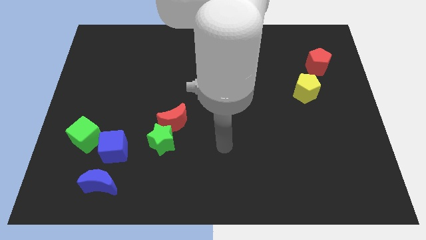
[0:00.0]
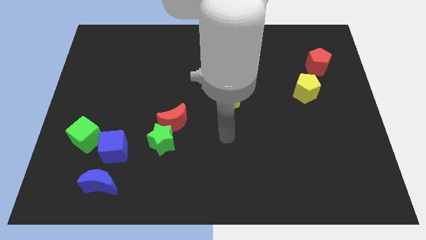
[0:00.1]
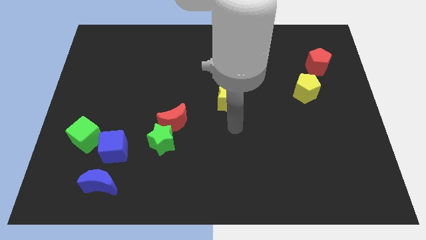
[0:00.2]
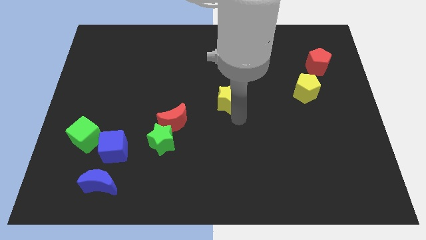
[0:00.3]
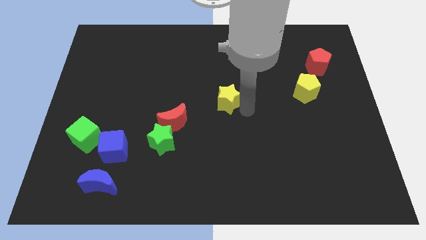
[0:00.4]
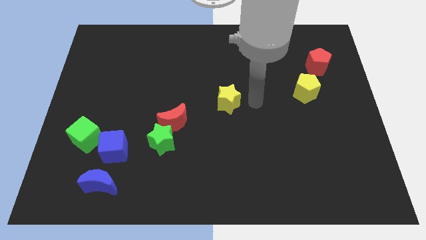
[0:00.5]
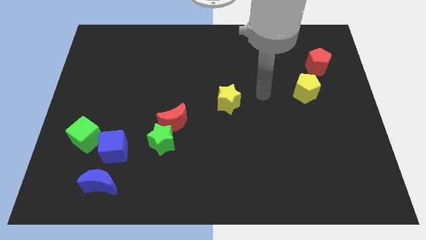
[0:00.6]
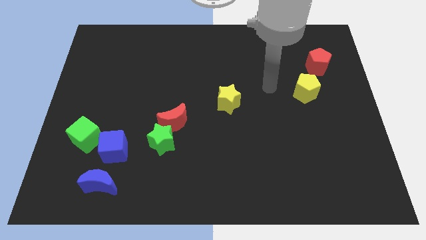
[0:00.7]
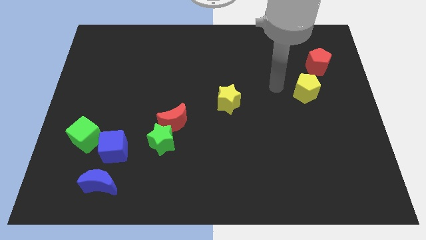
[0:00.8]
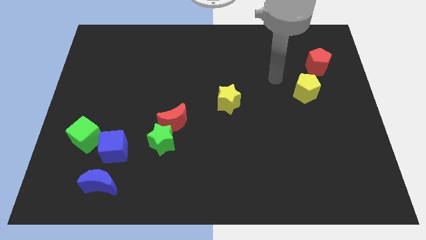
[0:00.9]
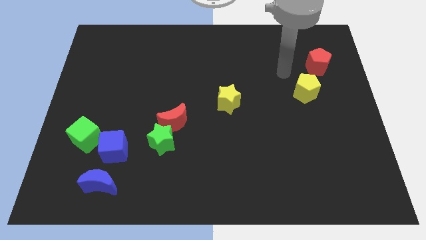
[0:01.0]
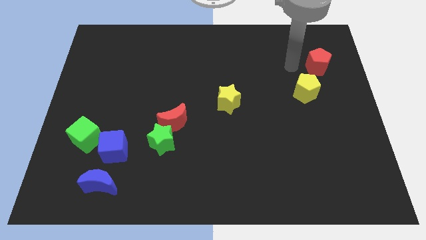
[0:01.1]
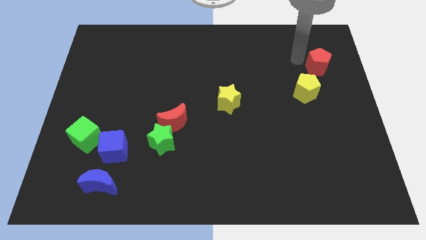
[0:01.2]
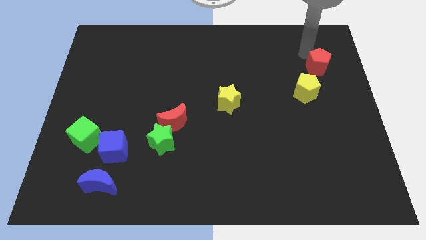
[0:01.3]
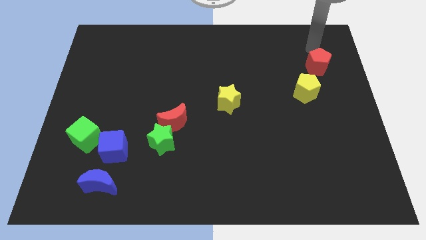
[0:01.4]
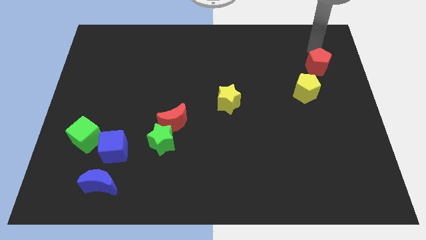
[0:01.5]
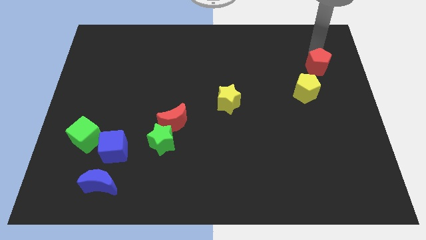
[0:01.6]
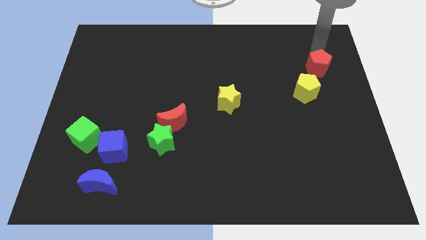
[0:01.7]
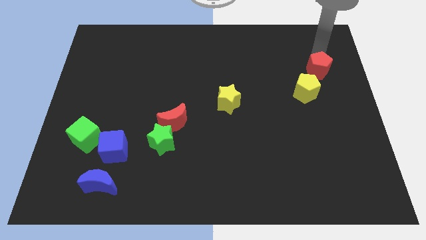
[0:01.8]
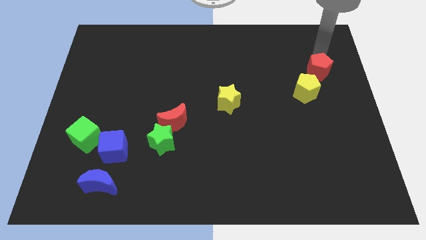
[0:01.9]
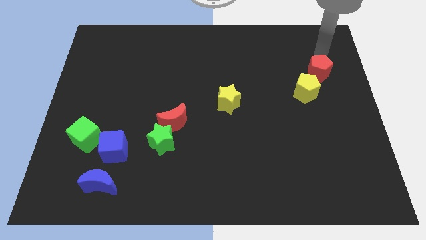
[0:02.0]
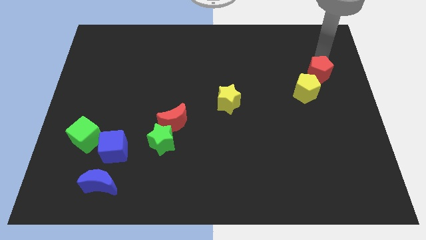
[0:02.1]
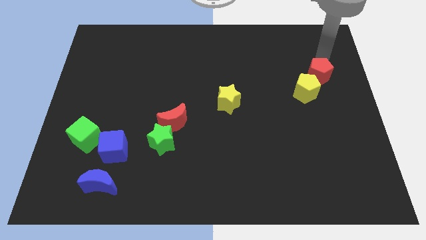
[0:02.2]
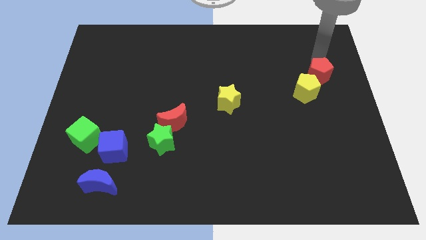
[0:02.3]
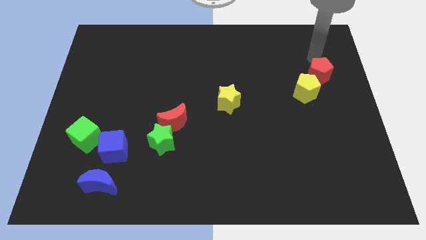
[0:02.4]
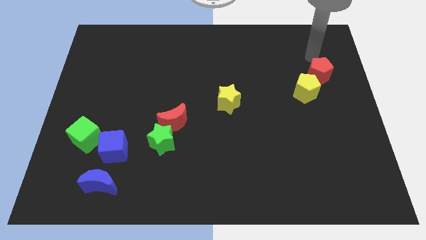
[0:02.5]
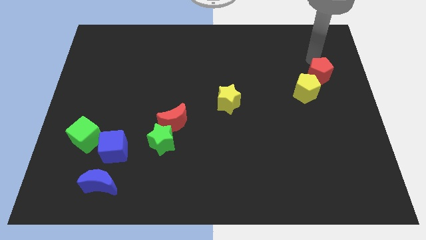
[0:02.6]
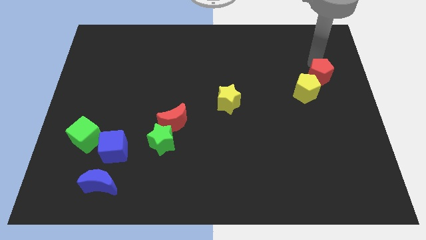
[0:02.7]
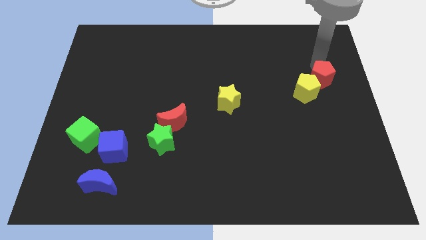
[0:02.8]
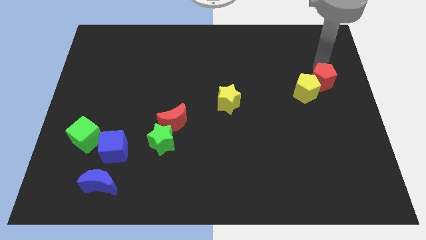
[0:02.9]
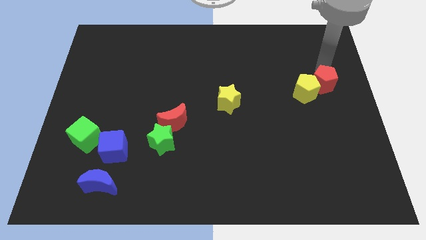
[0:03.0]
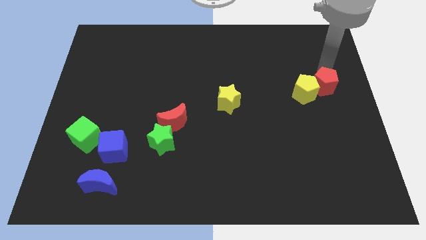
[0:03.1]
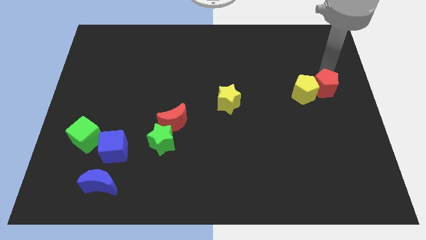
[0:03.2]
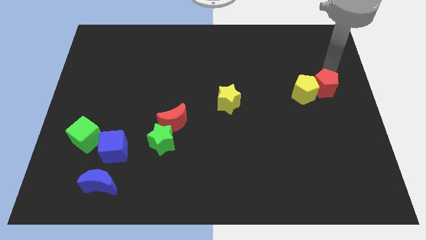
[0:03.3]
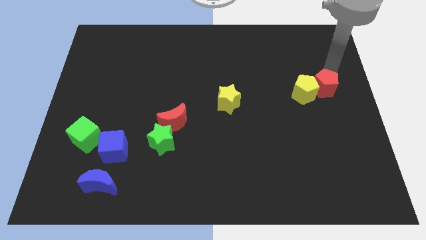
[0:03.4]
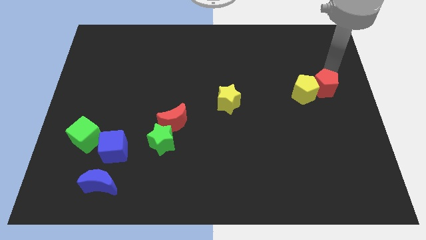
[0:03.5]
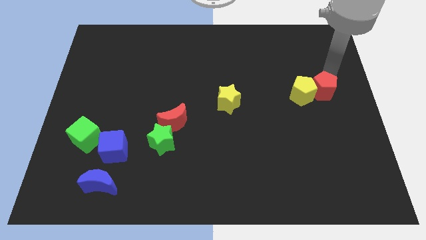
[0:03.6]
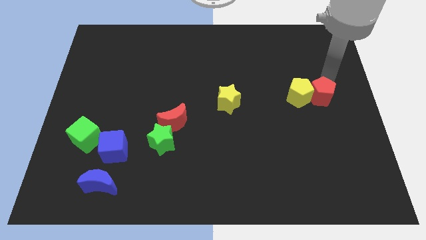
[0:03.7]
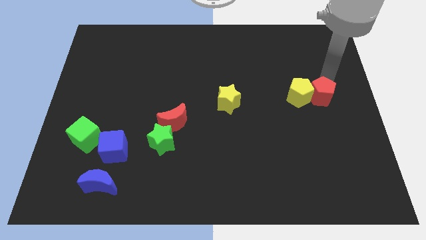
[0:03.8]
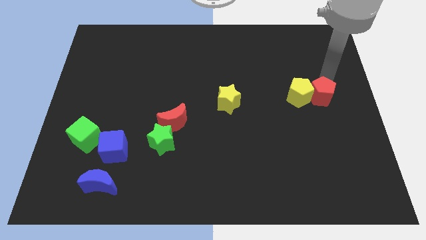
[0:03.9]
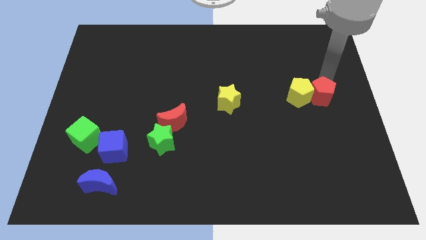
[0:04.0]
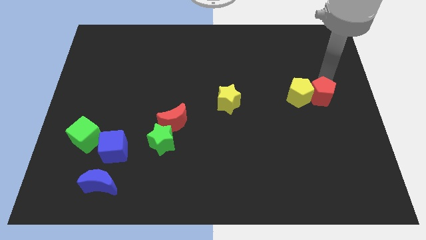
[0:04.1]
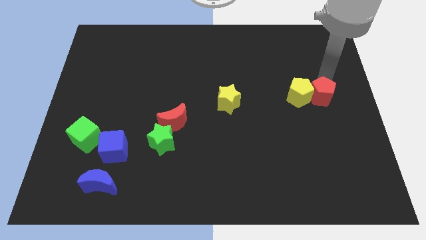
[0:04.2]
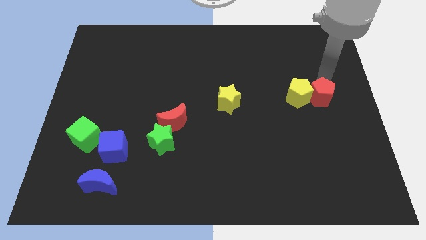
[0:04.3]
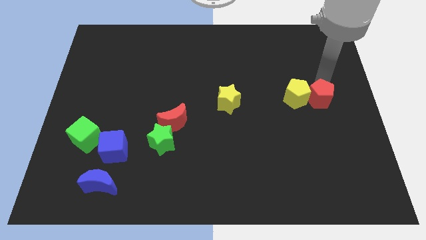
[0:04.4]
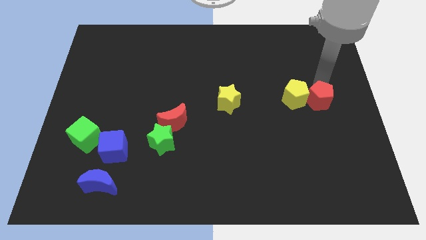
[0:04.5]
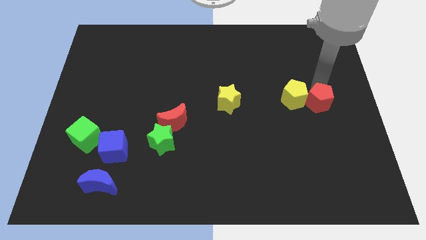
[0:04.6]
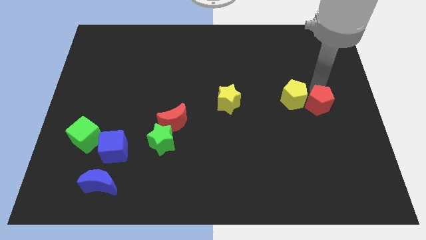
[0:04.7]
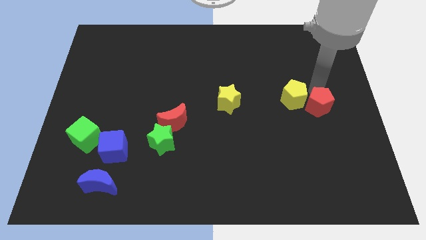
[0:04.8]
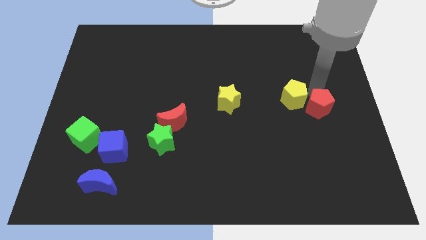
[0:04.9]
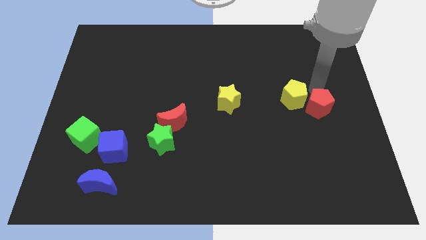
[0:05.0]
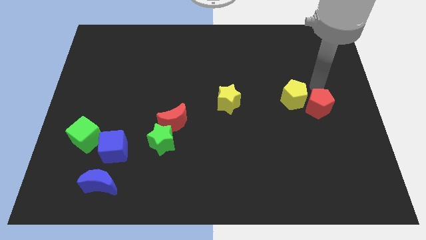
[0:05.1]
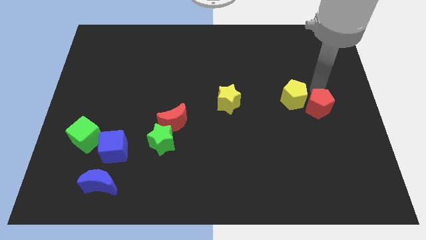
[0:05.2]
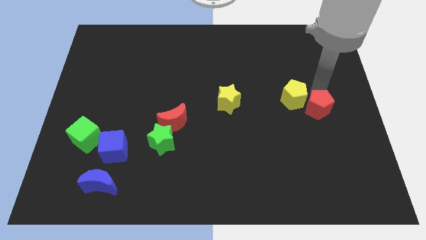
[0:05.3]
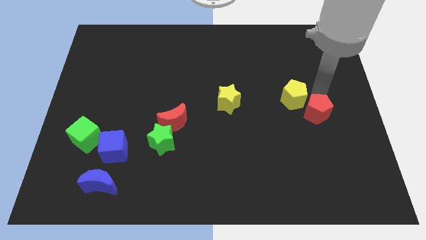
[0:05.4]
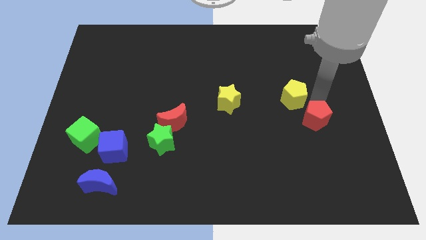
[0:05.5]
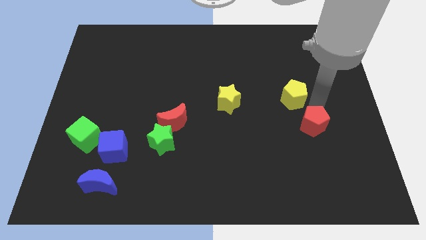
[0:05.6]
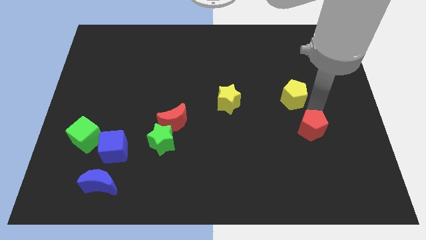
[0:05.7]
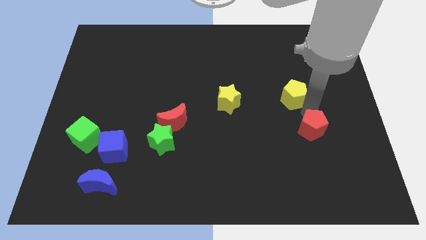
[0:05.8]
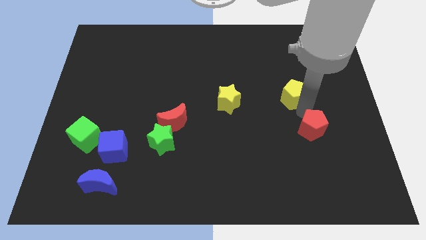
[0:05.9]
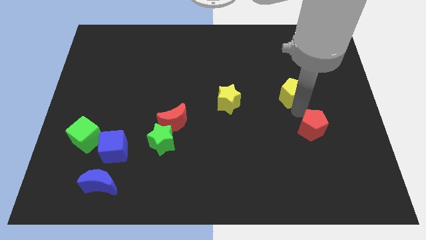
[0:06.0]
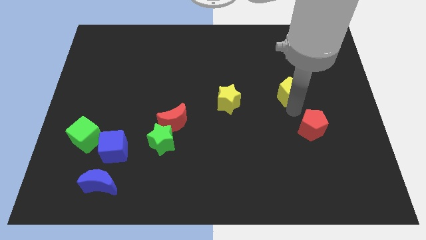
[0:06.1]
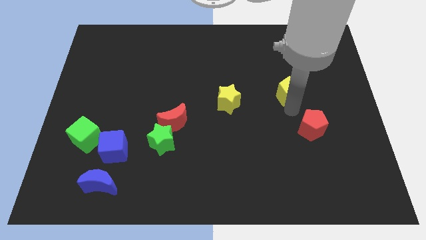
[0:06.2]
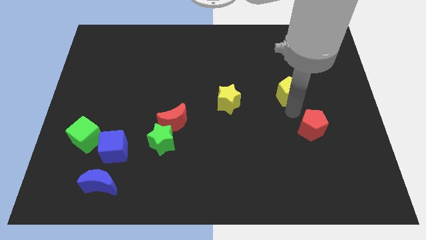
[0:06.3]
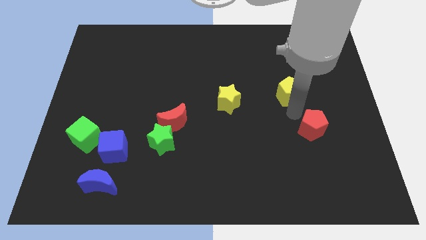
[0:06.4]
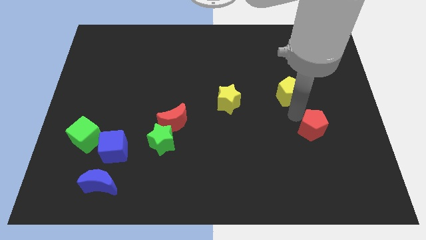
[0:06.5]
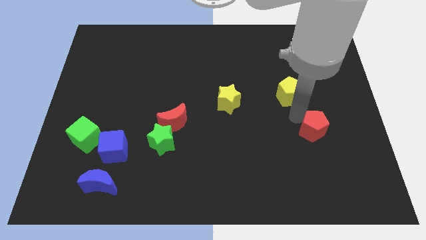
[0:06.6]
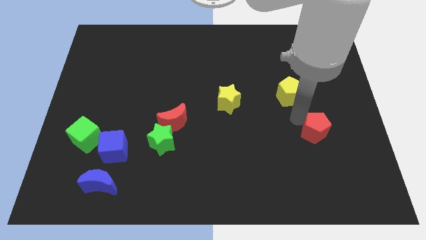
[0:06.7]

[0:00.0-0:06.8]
move the red pentagon down

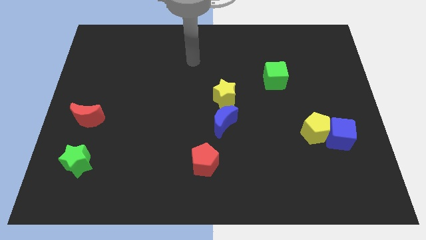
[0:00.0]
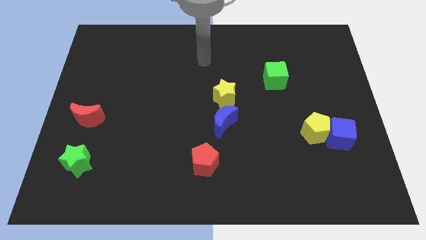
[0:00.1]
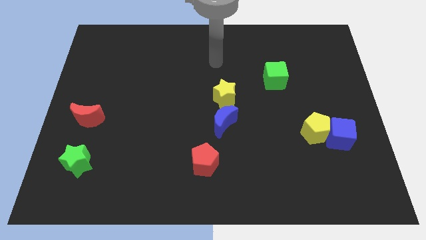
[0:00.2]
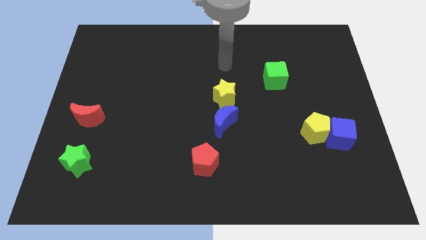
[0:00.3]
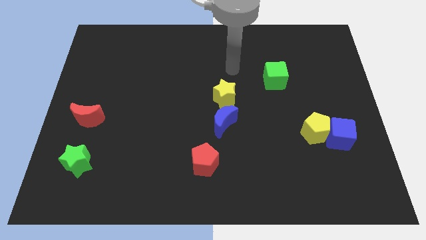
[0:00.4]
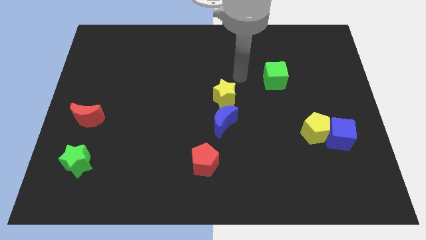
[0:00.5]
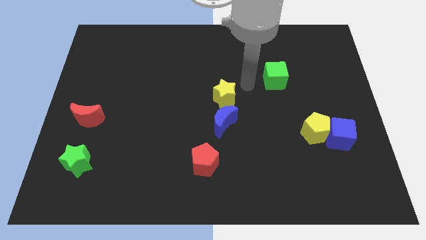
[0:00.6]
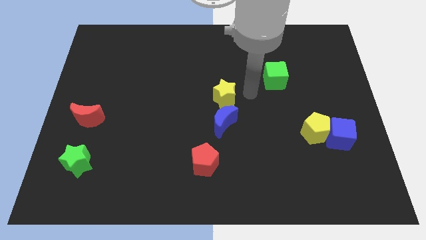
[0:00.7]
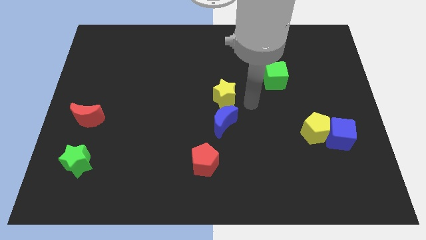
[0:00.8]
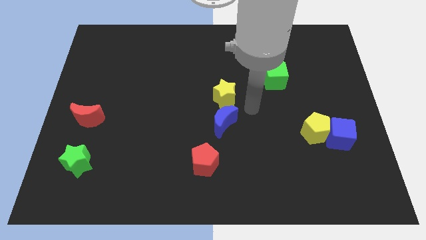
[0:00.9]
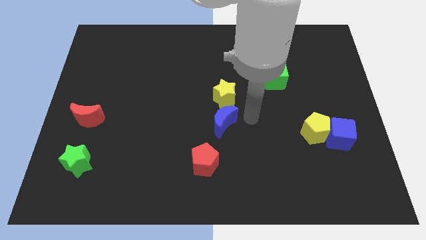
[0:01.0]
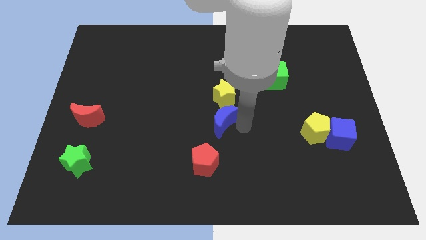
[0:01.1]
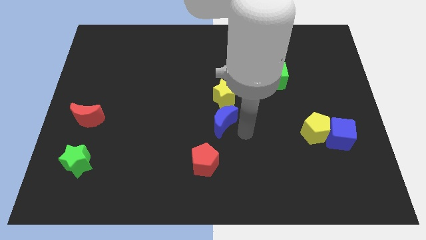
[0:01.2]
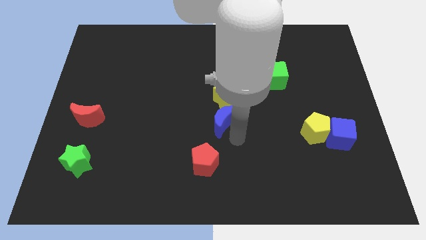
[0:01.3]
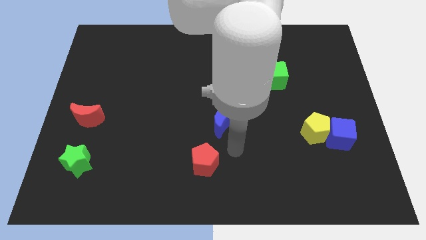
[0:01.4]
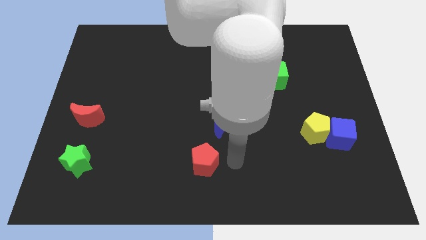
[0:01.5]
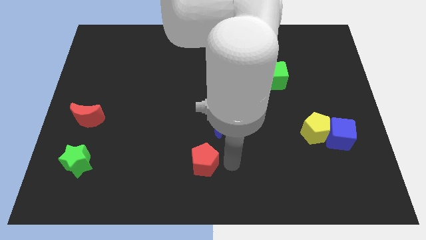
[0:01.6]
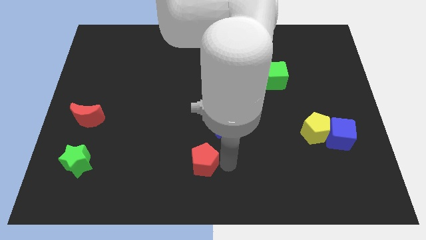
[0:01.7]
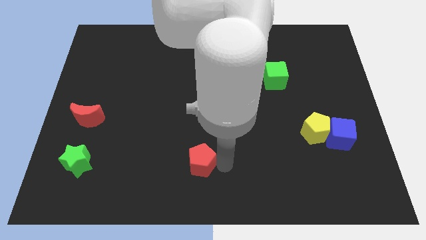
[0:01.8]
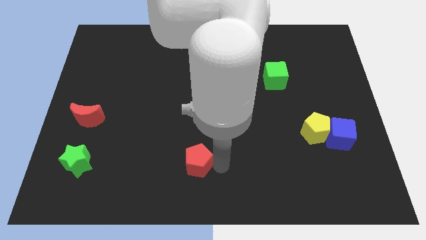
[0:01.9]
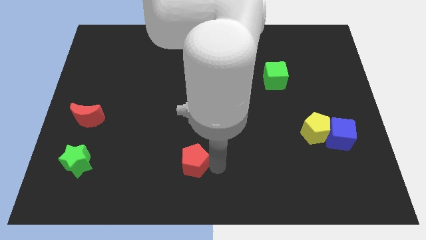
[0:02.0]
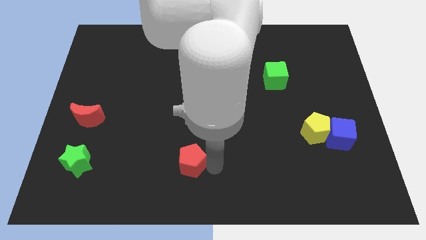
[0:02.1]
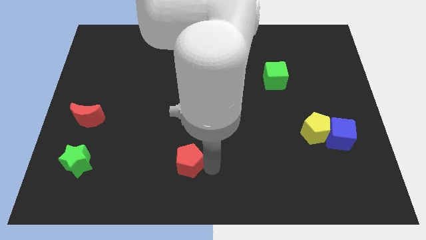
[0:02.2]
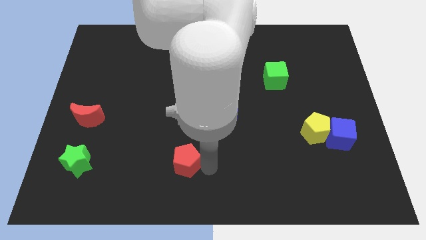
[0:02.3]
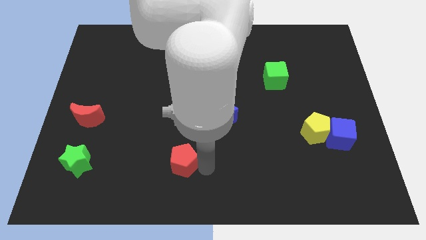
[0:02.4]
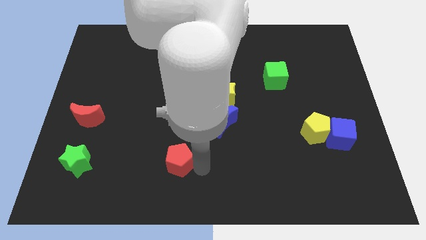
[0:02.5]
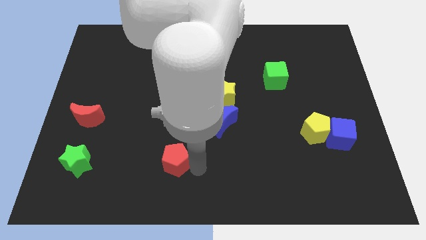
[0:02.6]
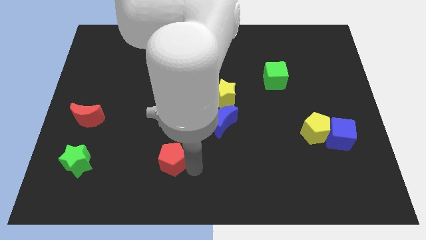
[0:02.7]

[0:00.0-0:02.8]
push the red pentagon somewhat left
